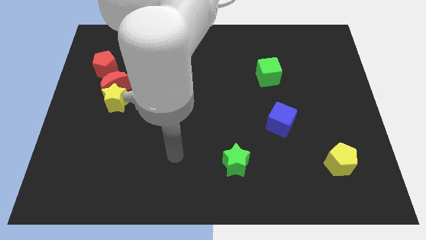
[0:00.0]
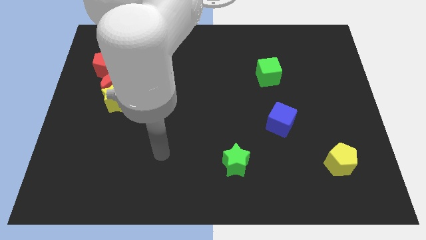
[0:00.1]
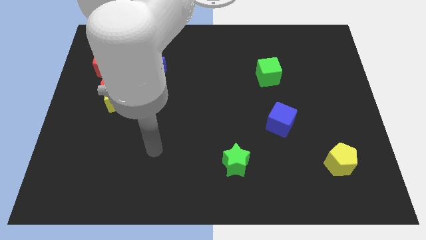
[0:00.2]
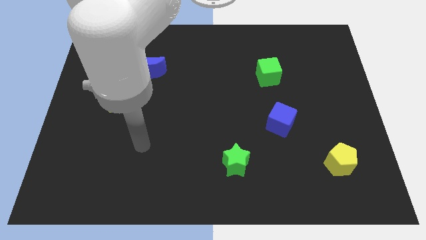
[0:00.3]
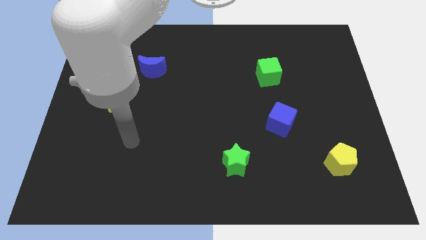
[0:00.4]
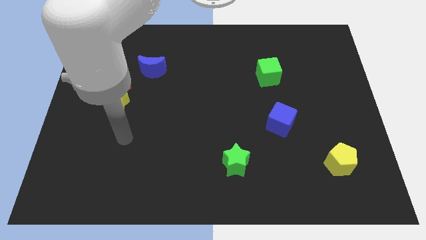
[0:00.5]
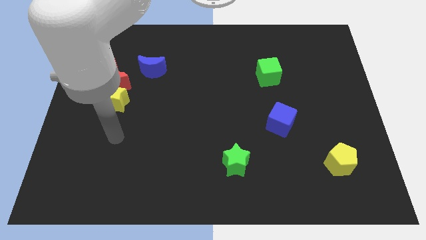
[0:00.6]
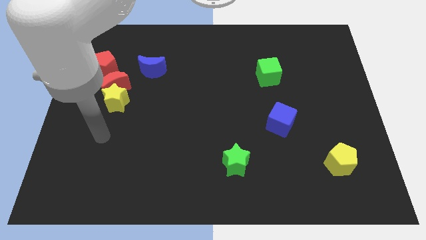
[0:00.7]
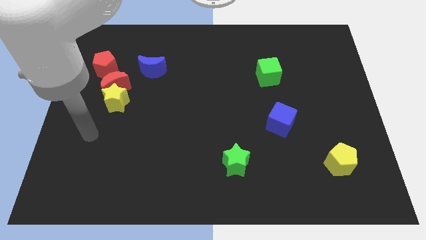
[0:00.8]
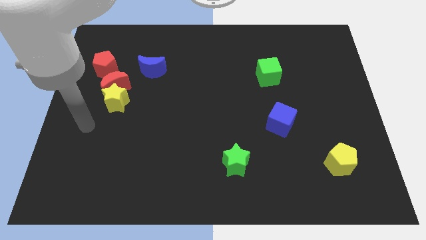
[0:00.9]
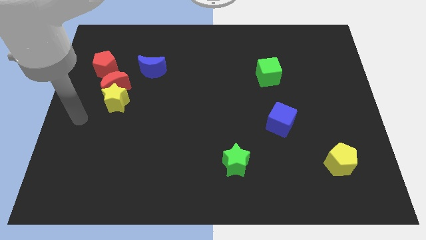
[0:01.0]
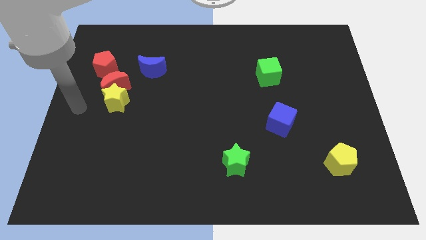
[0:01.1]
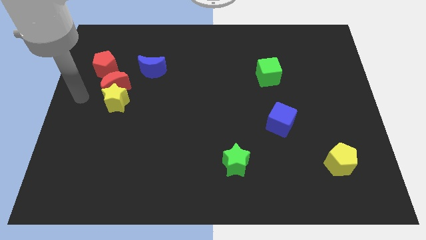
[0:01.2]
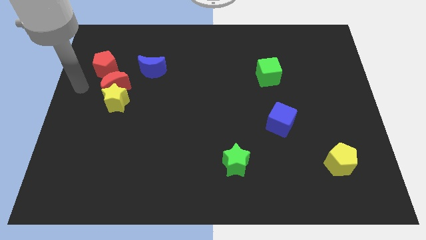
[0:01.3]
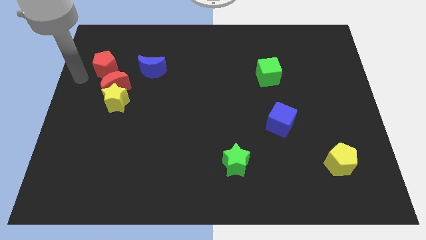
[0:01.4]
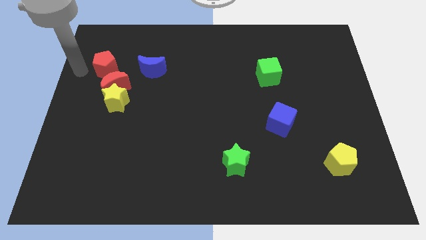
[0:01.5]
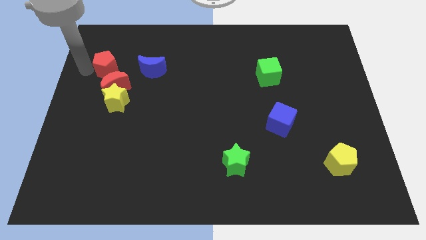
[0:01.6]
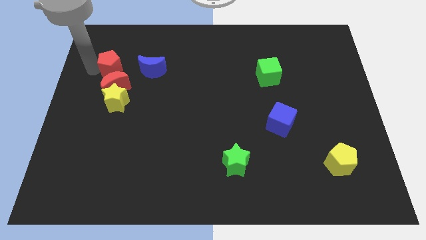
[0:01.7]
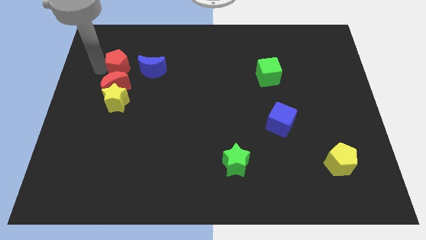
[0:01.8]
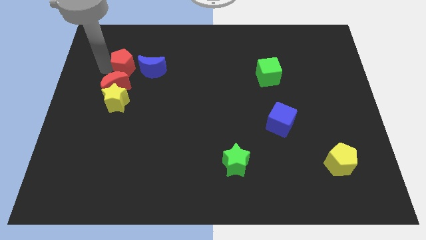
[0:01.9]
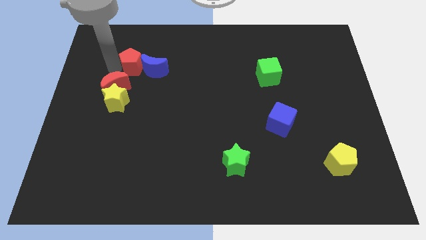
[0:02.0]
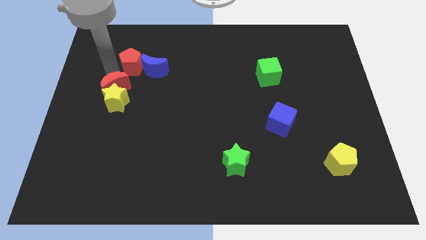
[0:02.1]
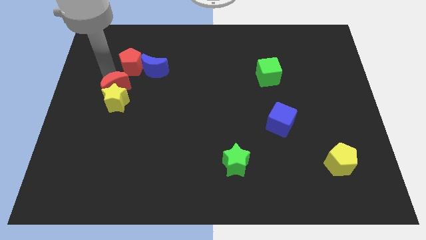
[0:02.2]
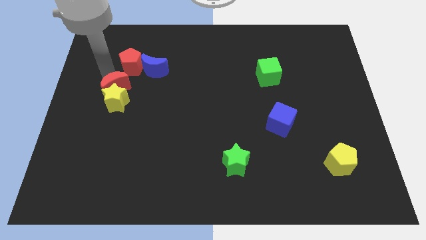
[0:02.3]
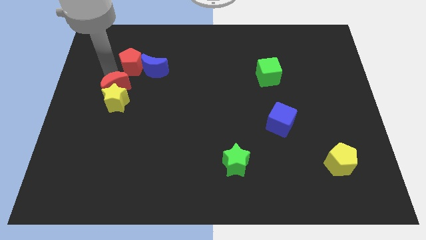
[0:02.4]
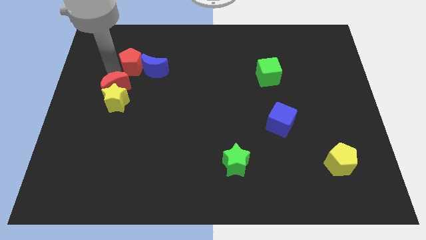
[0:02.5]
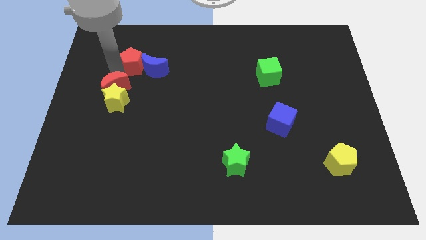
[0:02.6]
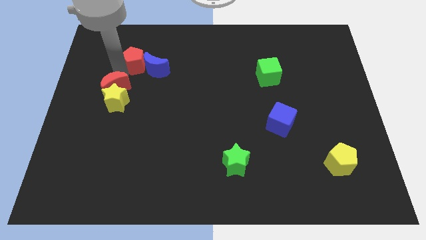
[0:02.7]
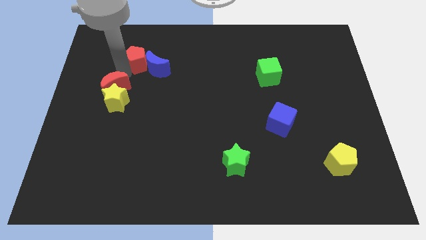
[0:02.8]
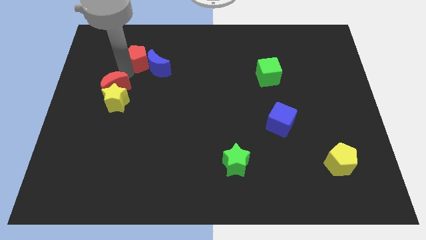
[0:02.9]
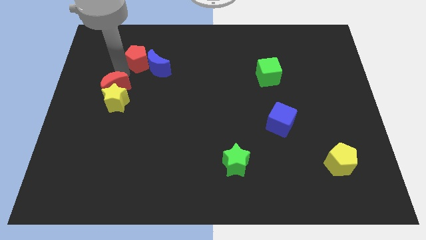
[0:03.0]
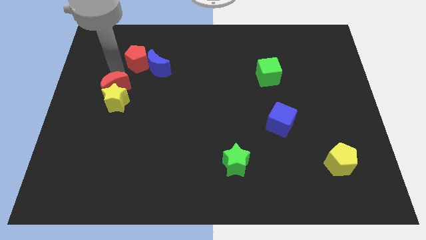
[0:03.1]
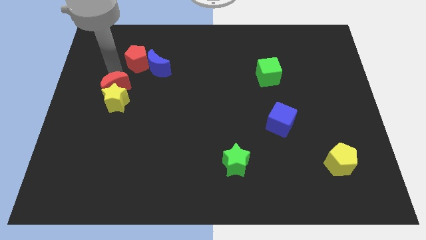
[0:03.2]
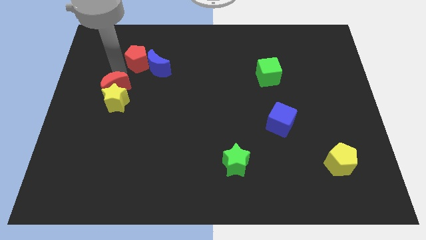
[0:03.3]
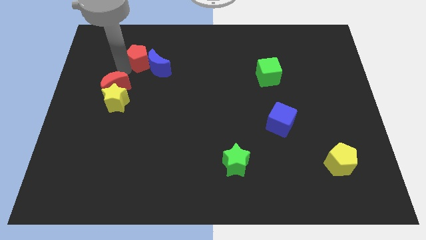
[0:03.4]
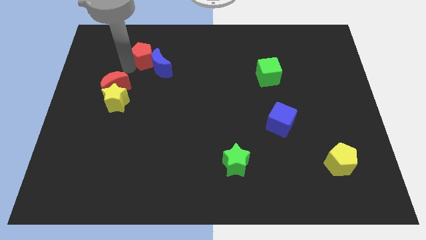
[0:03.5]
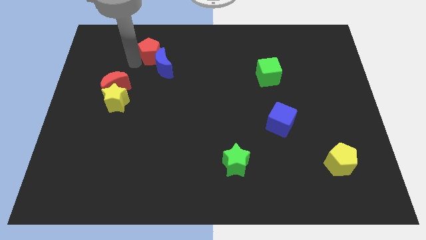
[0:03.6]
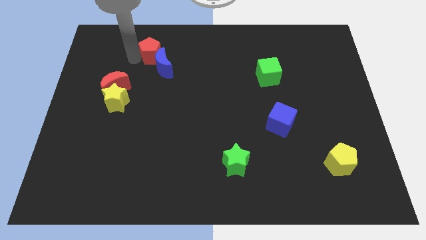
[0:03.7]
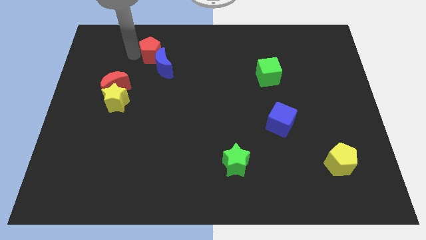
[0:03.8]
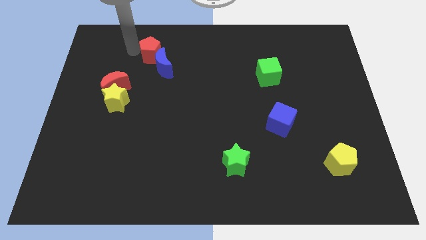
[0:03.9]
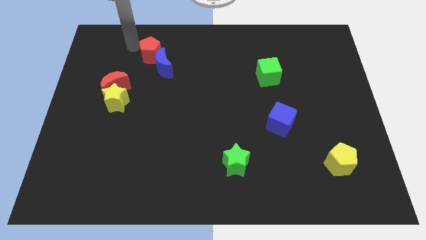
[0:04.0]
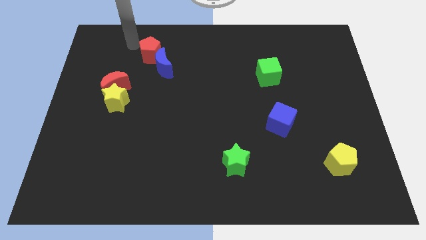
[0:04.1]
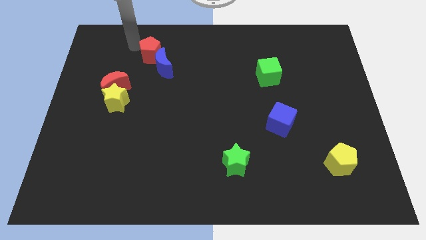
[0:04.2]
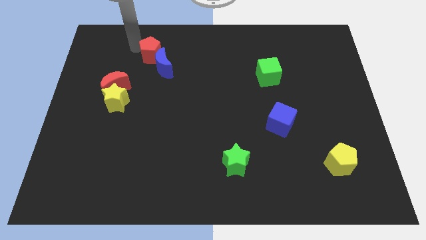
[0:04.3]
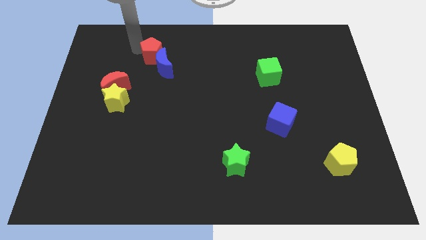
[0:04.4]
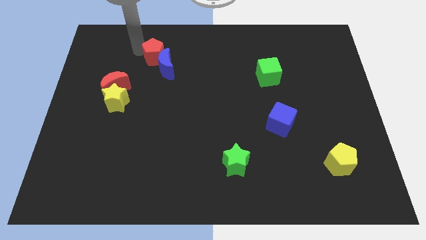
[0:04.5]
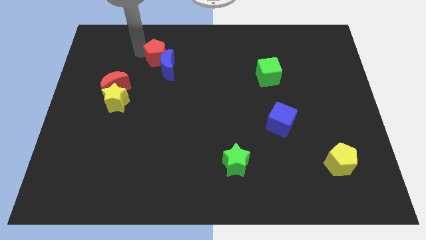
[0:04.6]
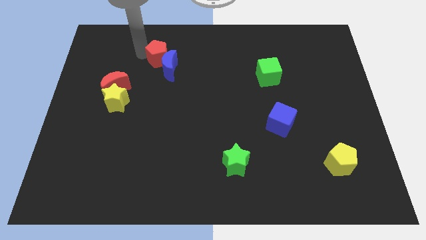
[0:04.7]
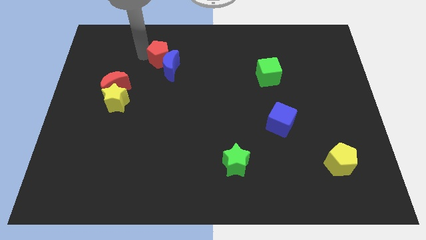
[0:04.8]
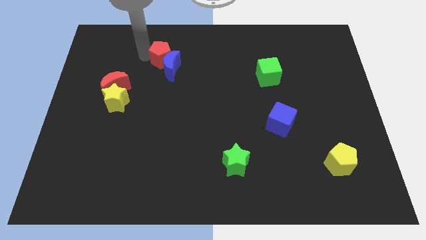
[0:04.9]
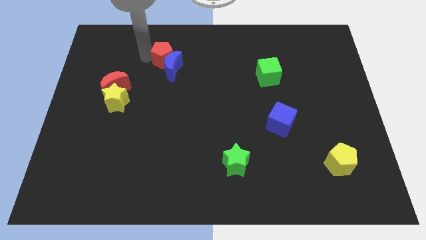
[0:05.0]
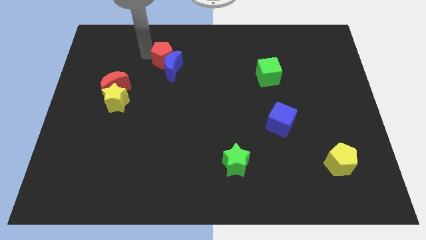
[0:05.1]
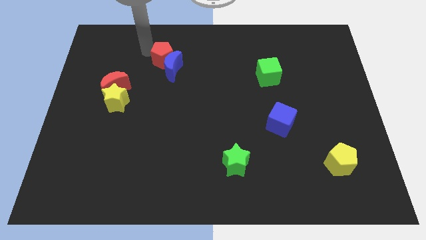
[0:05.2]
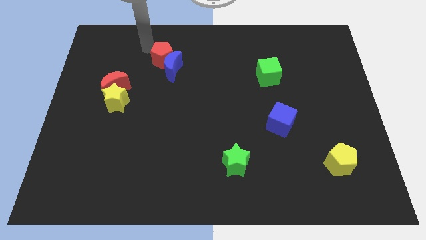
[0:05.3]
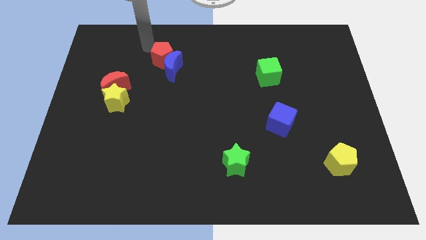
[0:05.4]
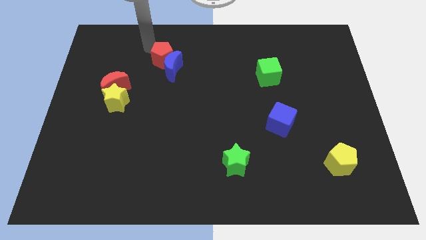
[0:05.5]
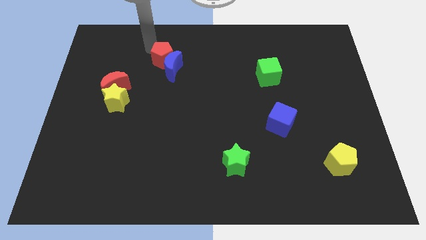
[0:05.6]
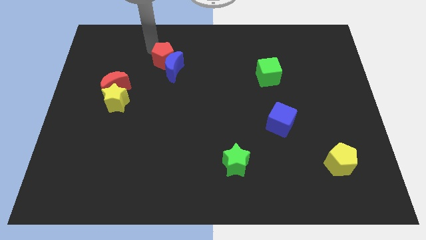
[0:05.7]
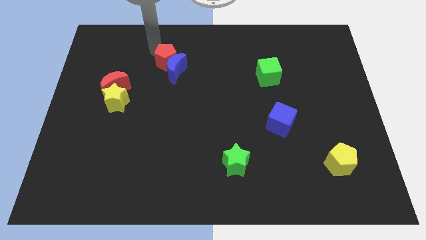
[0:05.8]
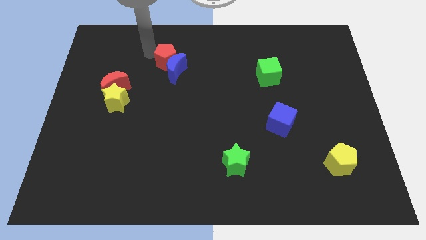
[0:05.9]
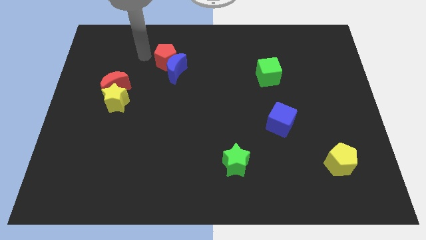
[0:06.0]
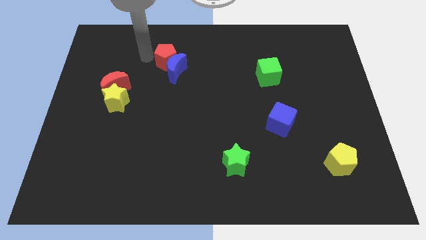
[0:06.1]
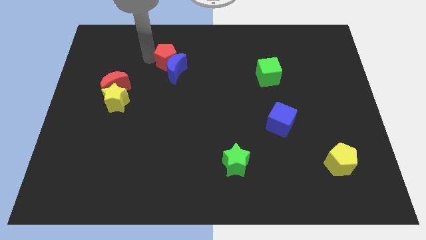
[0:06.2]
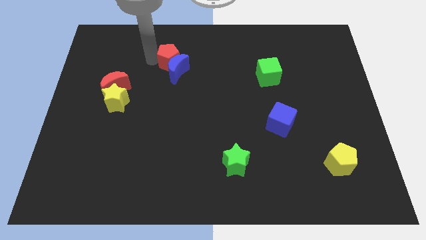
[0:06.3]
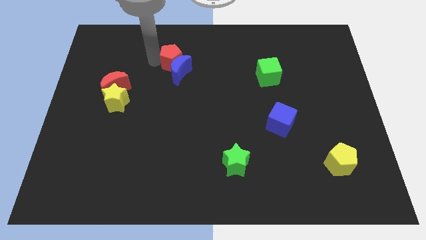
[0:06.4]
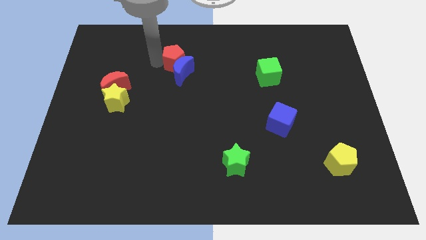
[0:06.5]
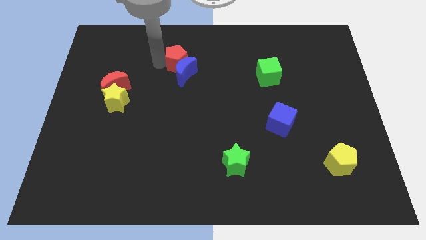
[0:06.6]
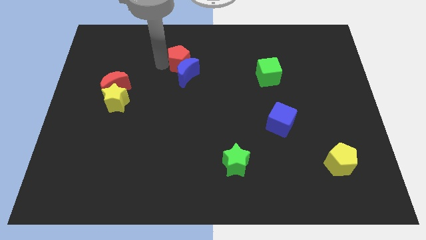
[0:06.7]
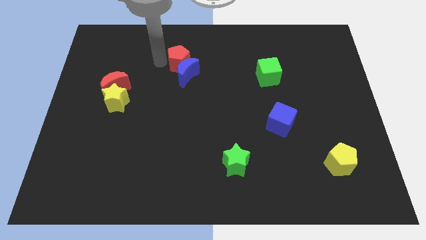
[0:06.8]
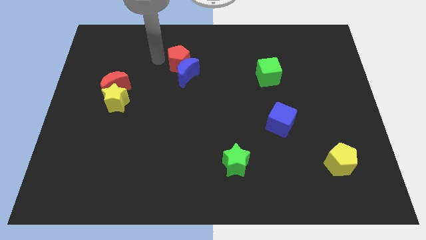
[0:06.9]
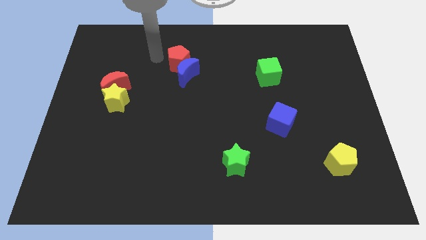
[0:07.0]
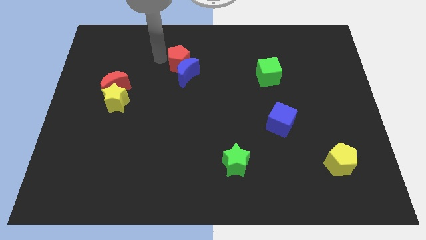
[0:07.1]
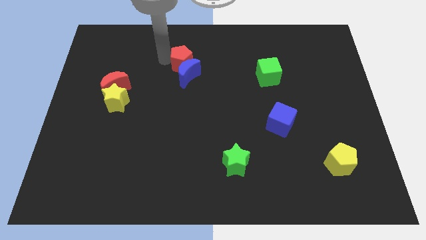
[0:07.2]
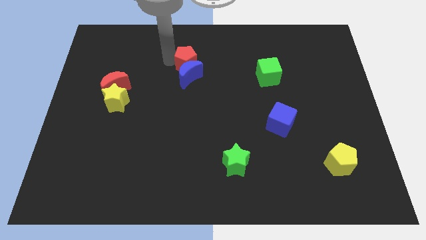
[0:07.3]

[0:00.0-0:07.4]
move the red pentagon to the right

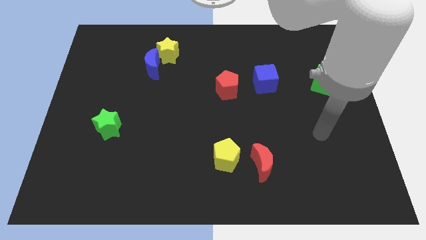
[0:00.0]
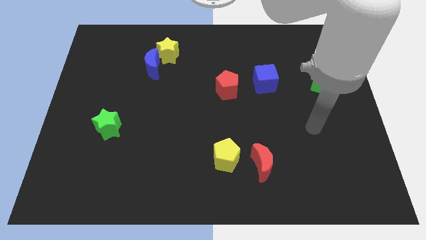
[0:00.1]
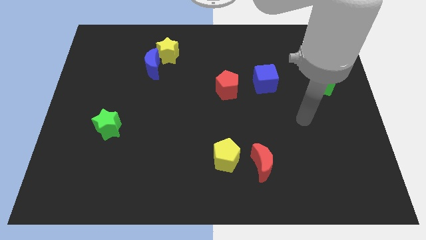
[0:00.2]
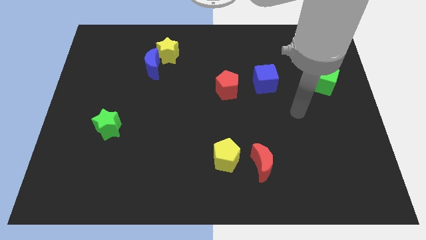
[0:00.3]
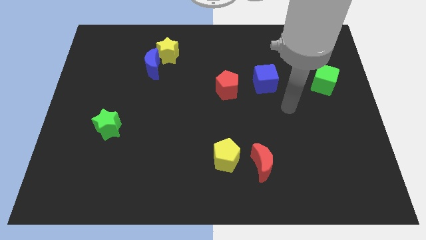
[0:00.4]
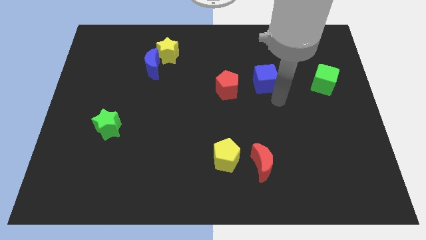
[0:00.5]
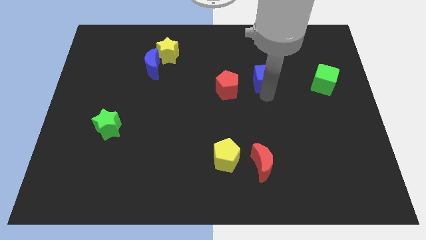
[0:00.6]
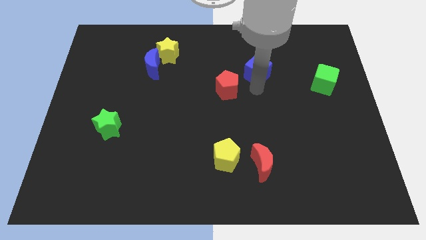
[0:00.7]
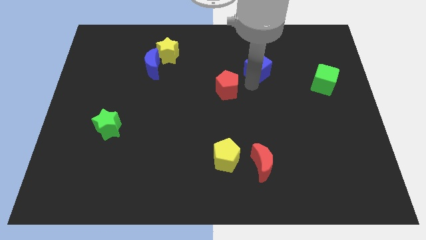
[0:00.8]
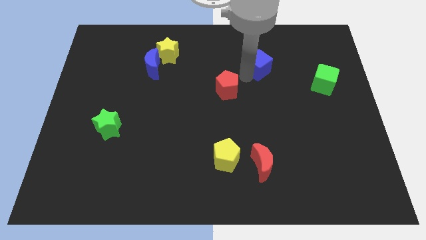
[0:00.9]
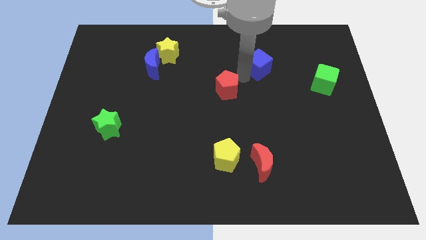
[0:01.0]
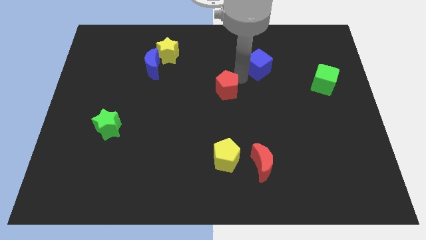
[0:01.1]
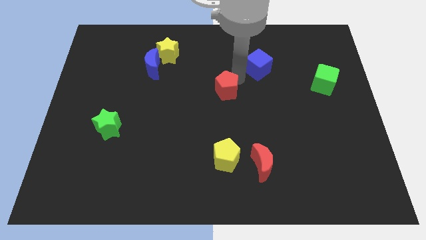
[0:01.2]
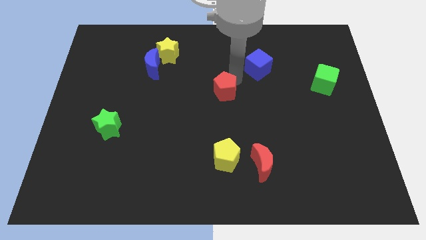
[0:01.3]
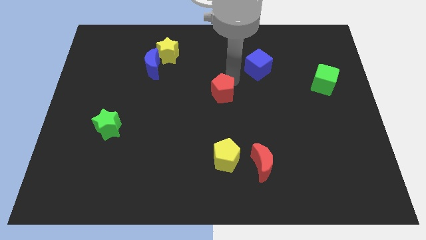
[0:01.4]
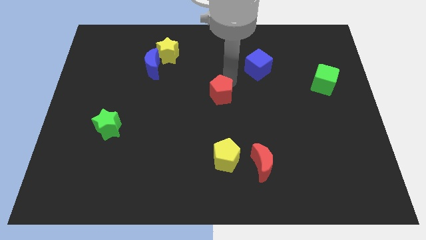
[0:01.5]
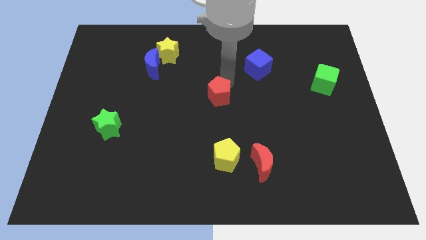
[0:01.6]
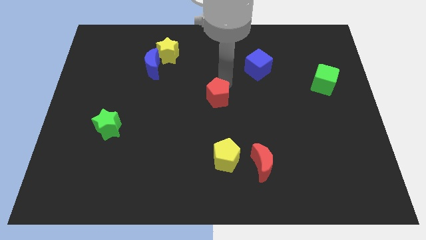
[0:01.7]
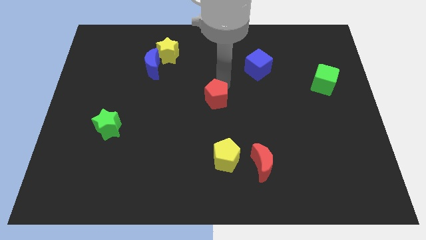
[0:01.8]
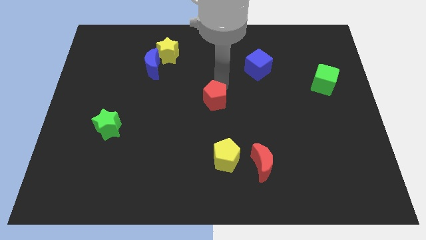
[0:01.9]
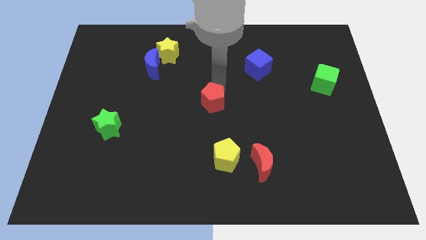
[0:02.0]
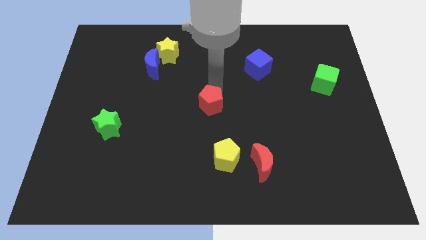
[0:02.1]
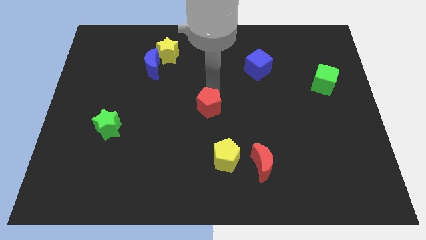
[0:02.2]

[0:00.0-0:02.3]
push the red pentagon a bit diagonally down and to the left
